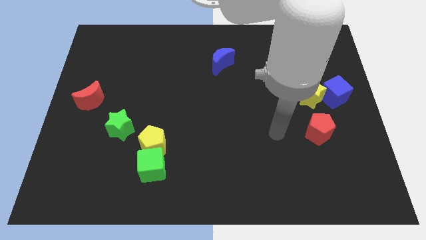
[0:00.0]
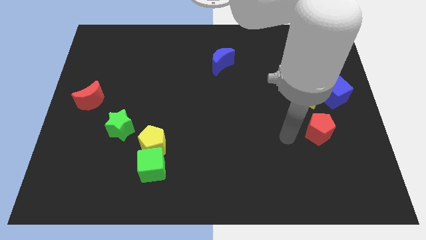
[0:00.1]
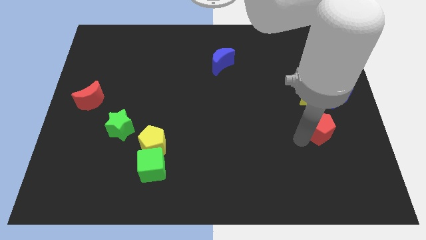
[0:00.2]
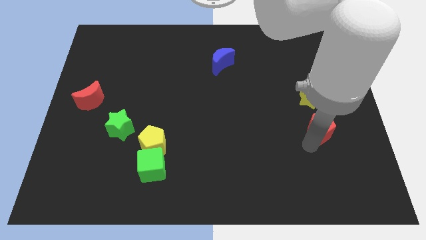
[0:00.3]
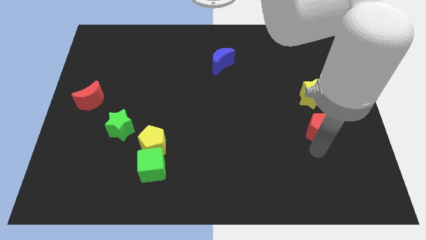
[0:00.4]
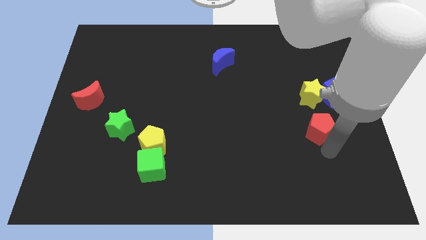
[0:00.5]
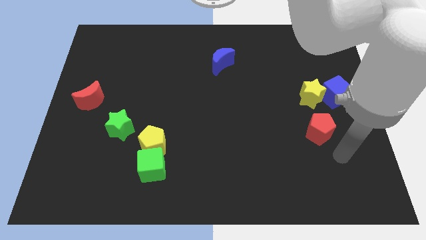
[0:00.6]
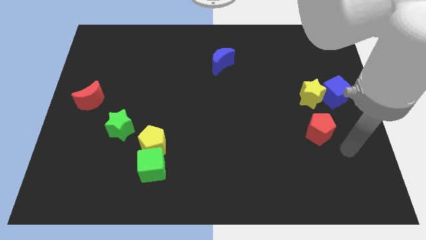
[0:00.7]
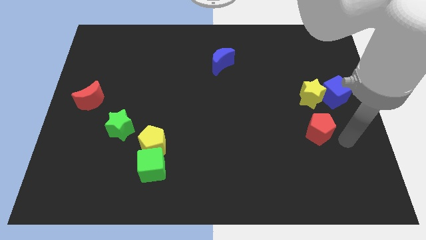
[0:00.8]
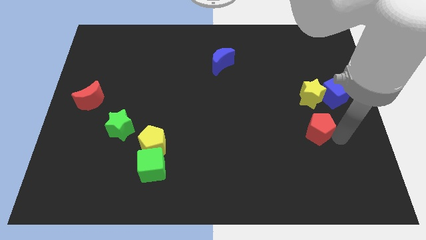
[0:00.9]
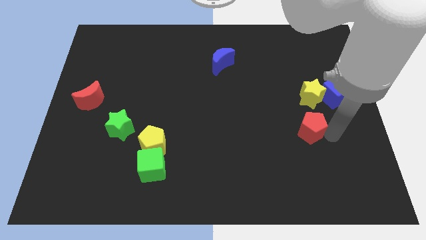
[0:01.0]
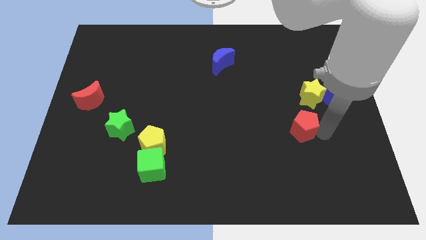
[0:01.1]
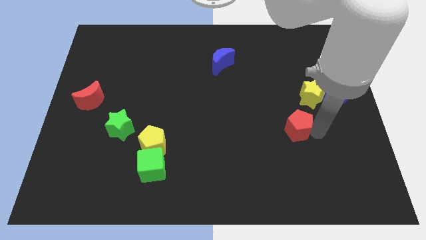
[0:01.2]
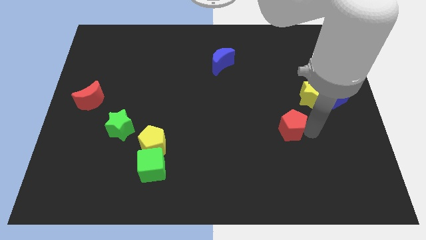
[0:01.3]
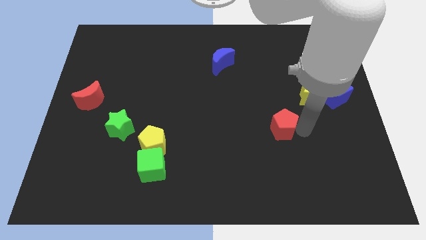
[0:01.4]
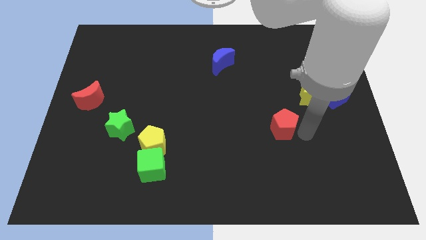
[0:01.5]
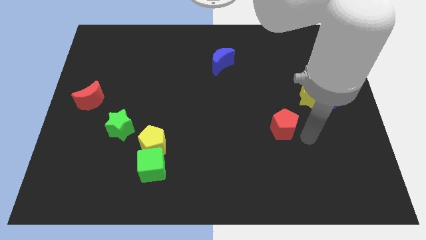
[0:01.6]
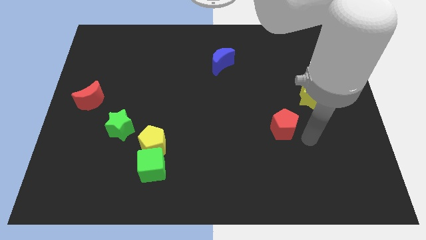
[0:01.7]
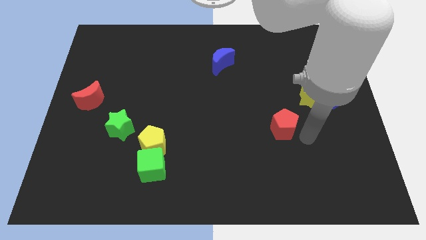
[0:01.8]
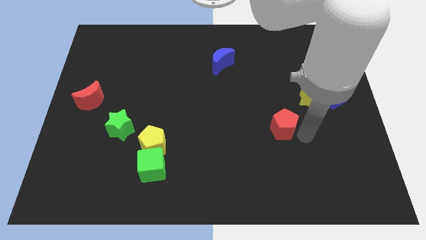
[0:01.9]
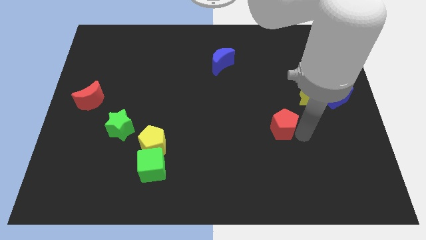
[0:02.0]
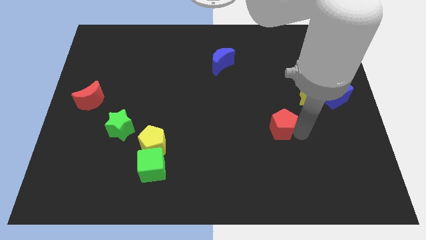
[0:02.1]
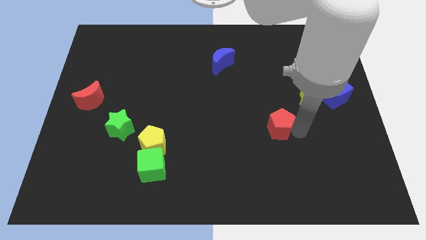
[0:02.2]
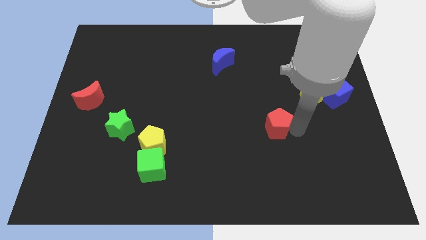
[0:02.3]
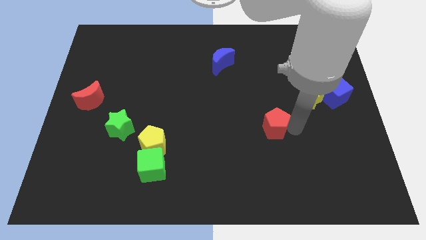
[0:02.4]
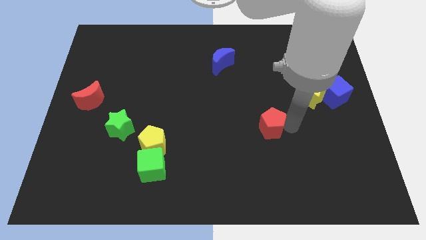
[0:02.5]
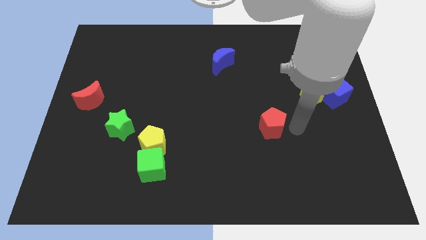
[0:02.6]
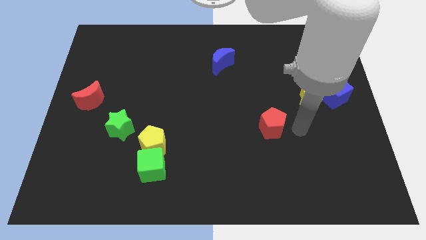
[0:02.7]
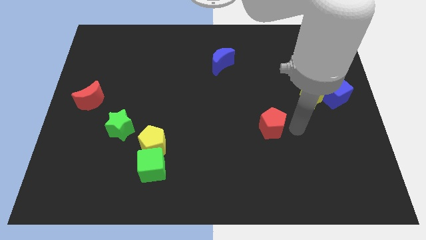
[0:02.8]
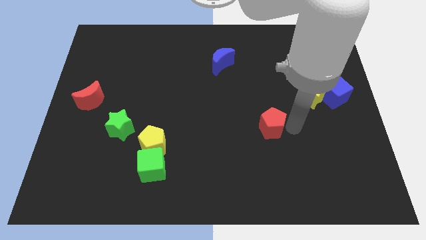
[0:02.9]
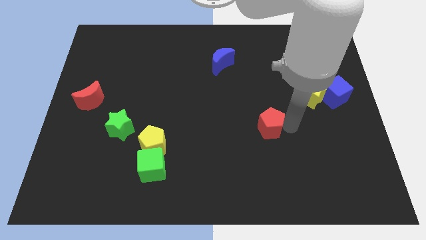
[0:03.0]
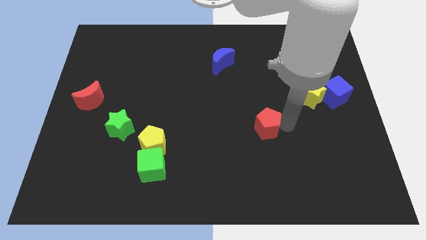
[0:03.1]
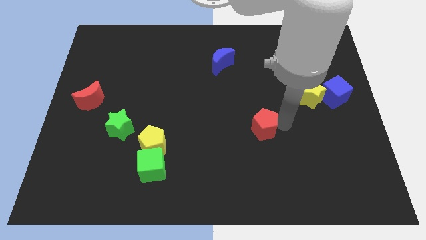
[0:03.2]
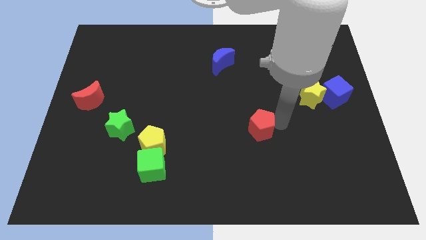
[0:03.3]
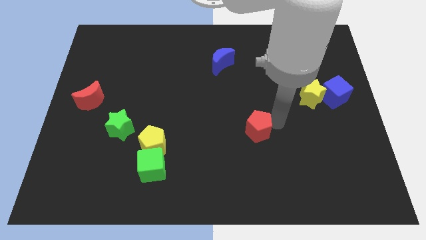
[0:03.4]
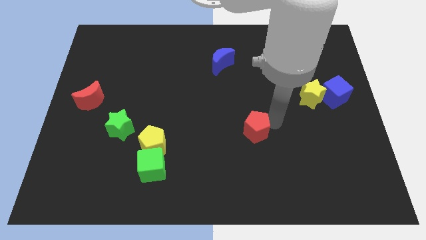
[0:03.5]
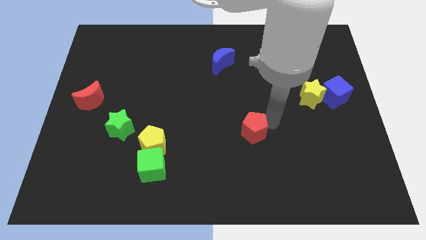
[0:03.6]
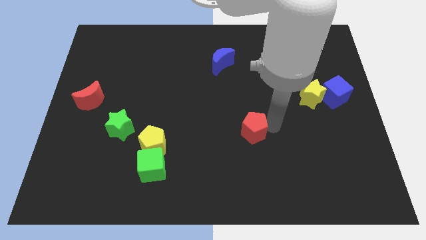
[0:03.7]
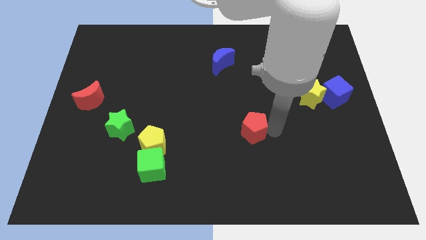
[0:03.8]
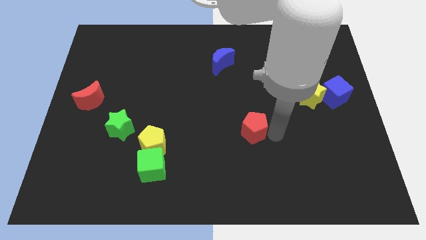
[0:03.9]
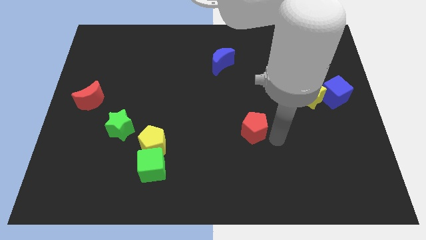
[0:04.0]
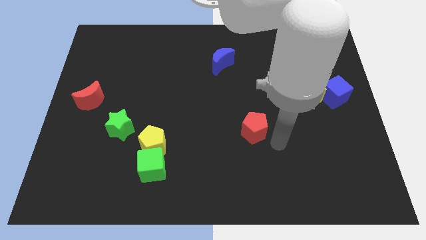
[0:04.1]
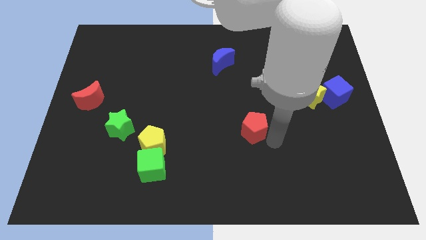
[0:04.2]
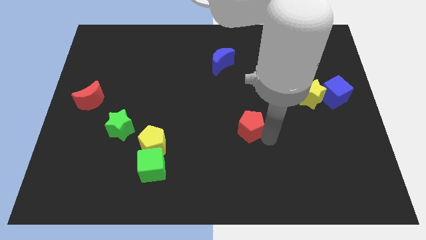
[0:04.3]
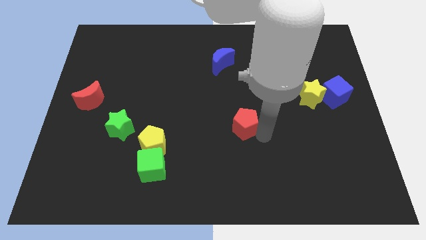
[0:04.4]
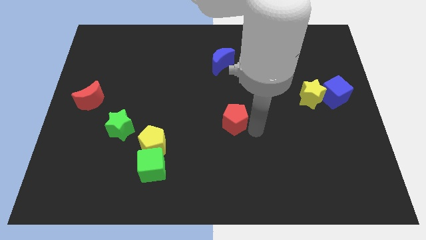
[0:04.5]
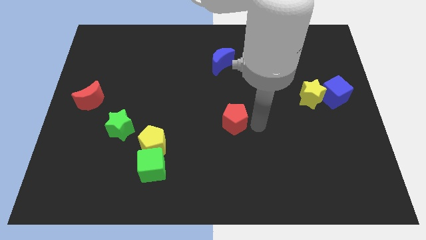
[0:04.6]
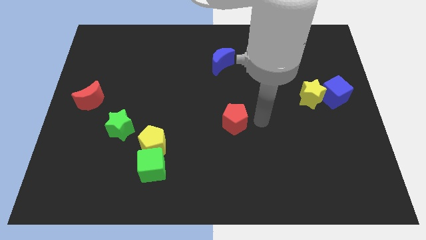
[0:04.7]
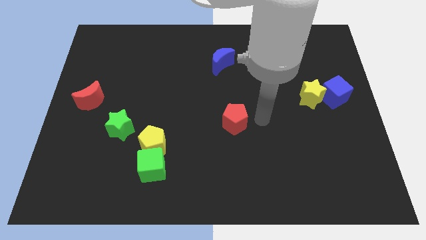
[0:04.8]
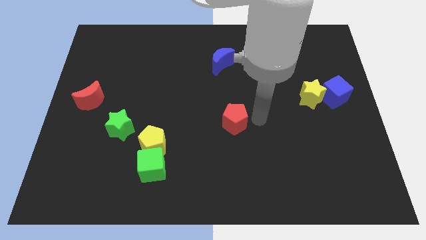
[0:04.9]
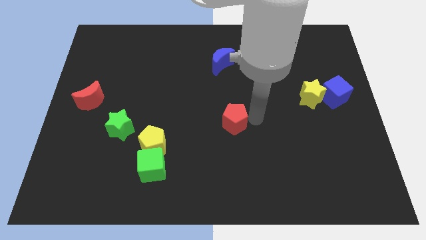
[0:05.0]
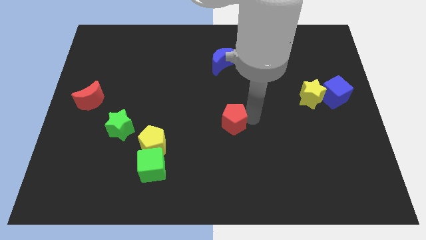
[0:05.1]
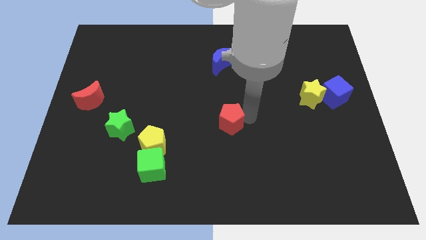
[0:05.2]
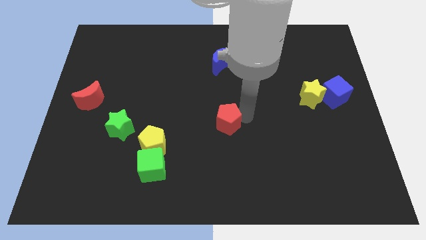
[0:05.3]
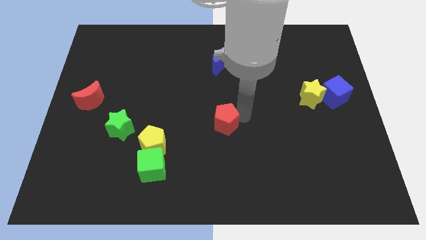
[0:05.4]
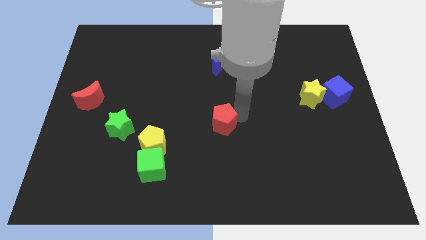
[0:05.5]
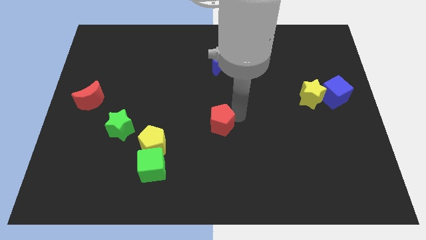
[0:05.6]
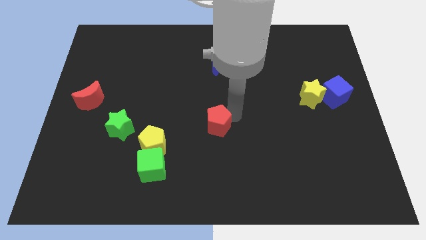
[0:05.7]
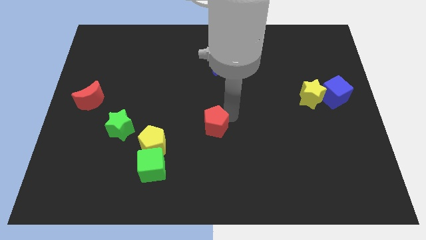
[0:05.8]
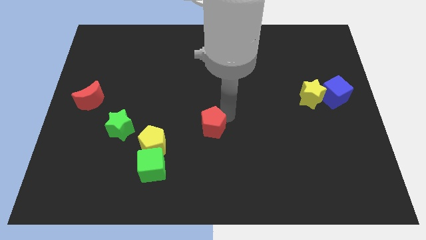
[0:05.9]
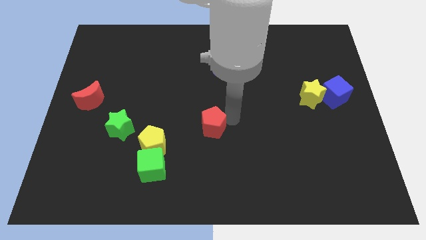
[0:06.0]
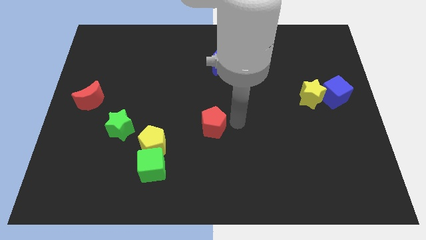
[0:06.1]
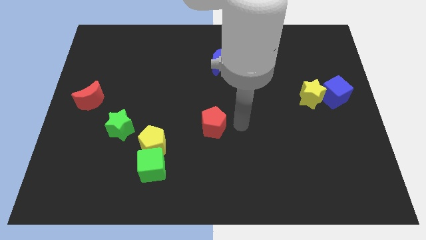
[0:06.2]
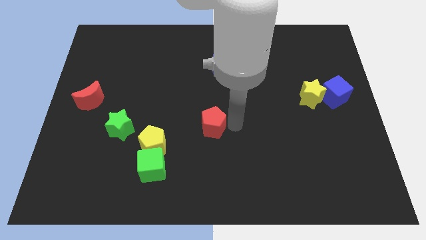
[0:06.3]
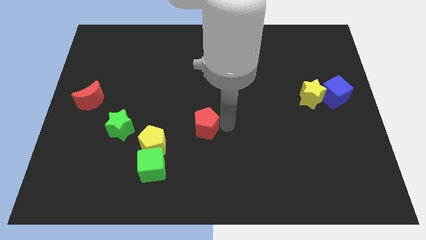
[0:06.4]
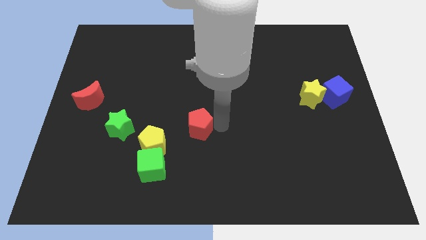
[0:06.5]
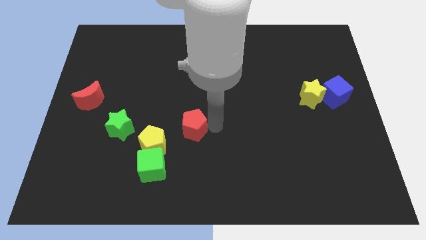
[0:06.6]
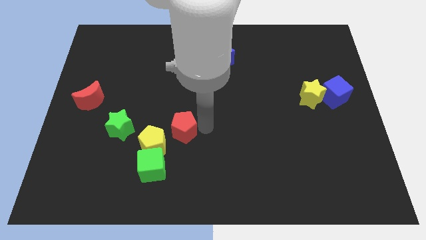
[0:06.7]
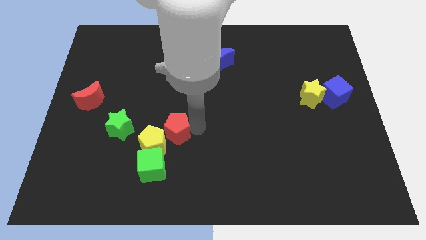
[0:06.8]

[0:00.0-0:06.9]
push the red pentagon above the green cube
